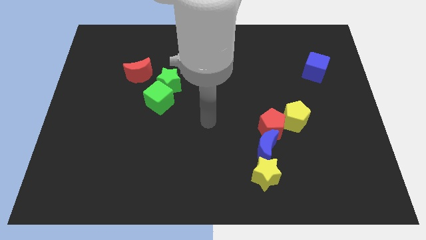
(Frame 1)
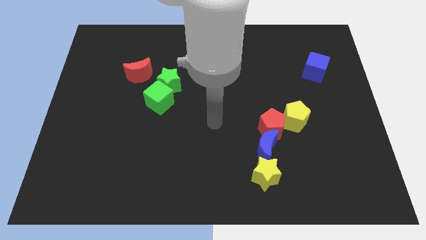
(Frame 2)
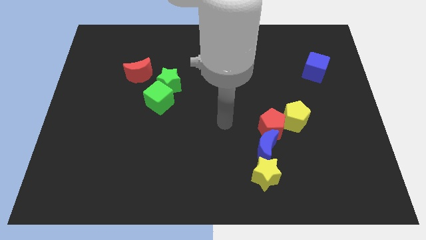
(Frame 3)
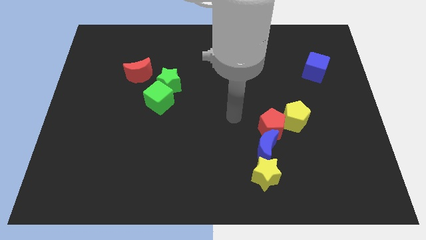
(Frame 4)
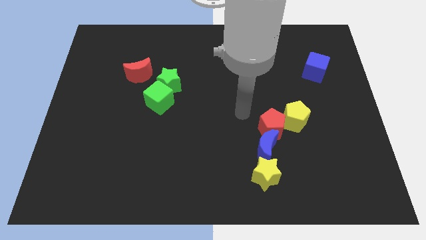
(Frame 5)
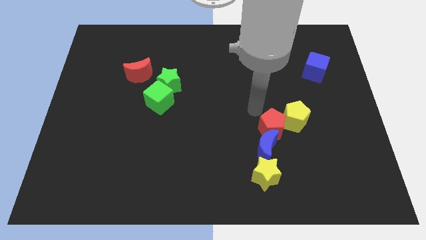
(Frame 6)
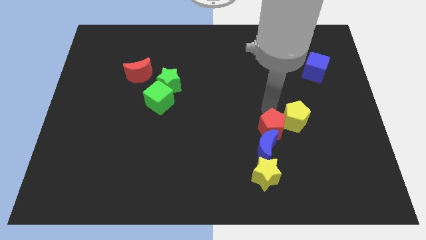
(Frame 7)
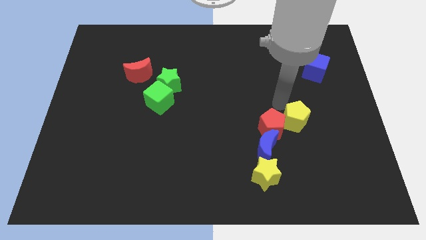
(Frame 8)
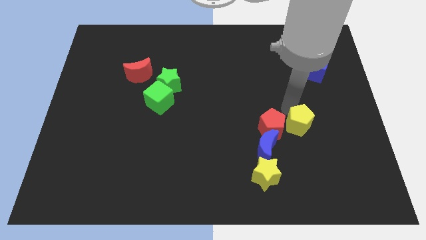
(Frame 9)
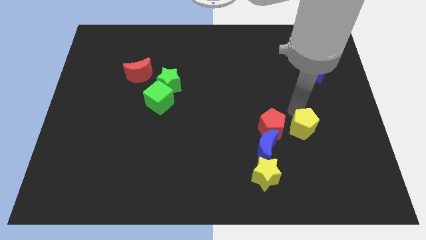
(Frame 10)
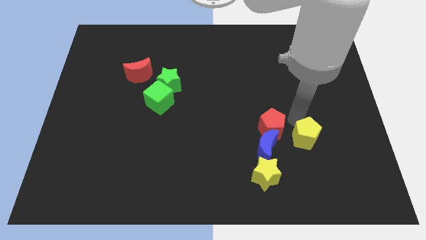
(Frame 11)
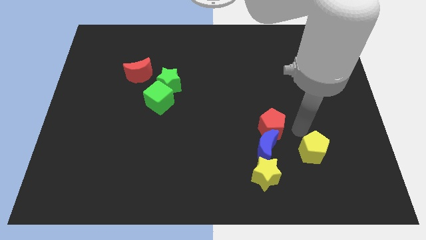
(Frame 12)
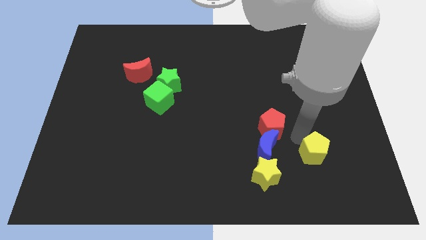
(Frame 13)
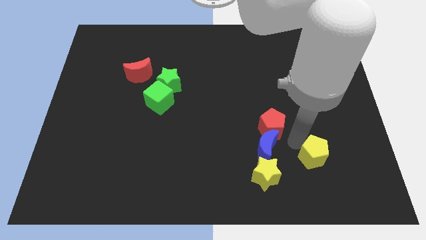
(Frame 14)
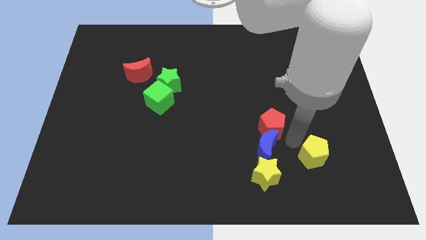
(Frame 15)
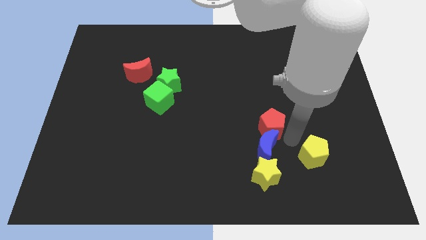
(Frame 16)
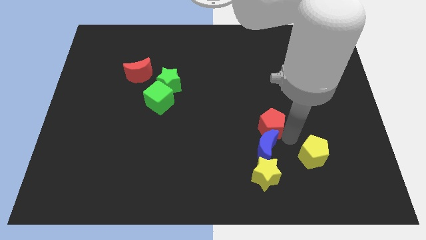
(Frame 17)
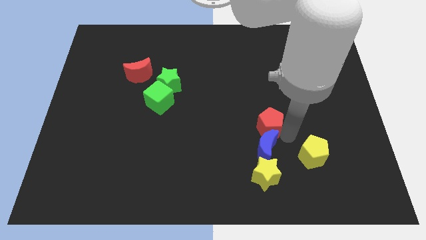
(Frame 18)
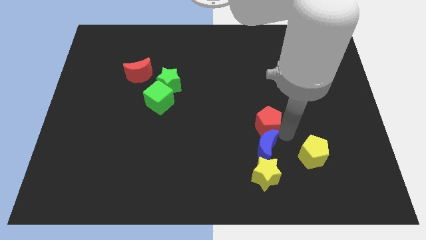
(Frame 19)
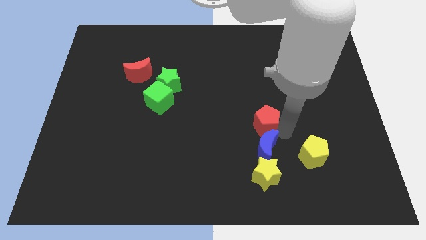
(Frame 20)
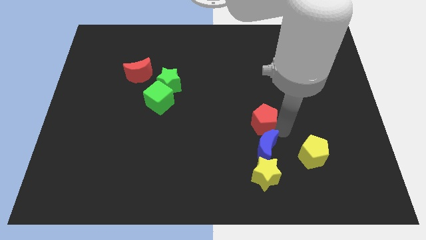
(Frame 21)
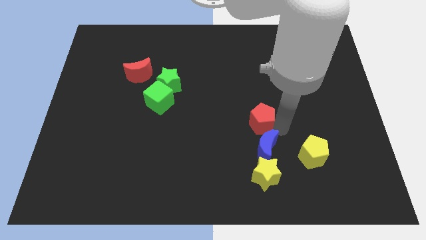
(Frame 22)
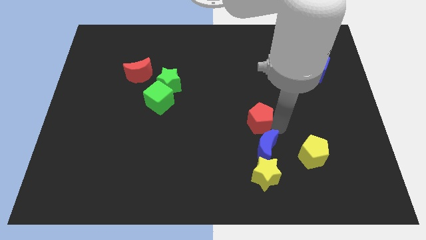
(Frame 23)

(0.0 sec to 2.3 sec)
separate the red pentagon from the blue moon and yellow pentagon

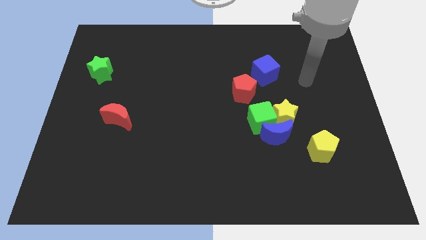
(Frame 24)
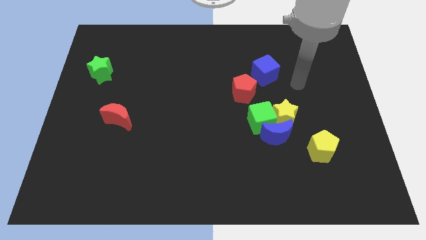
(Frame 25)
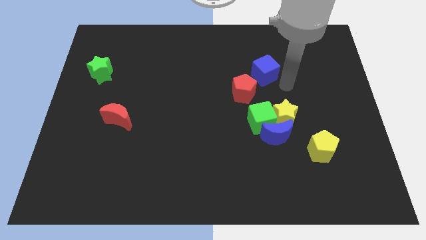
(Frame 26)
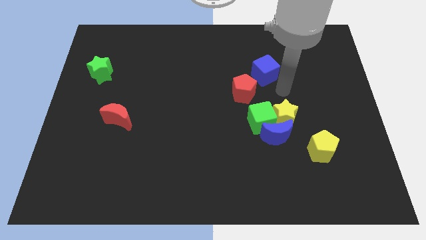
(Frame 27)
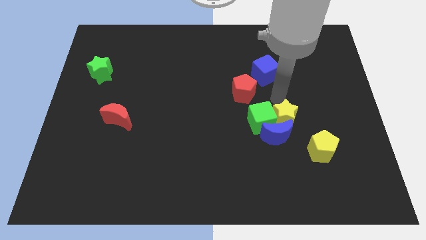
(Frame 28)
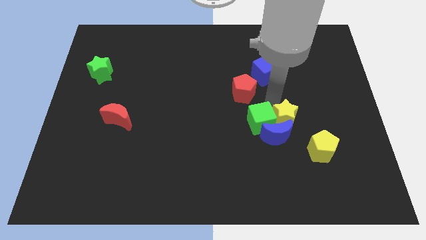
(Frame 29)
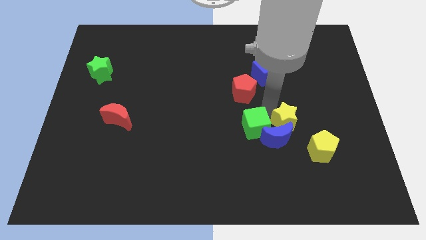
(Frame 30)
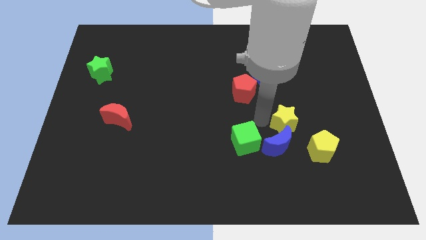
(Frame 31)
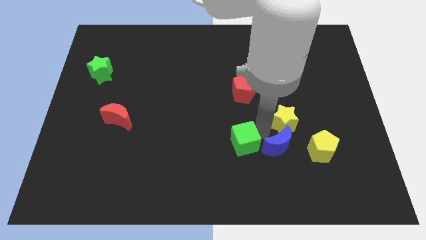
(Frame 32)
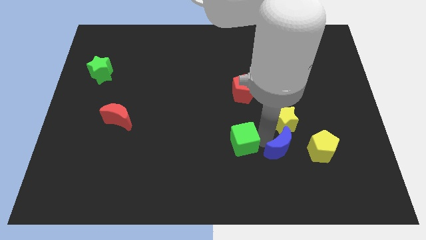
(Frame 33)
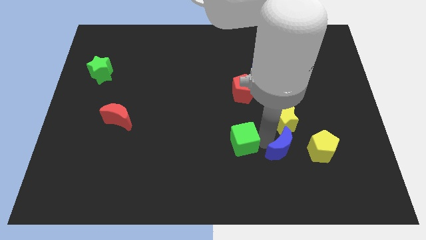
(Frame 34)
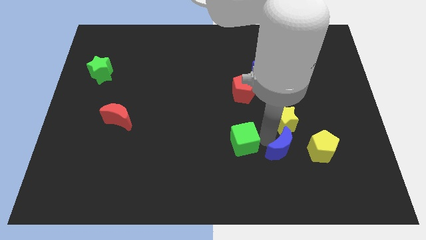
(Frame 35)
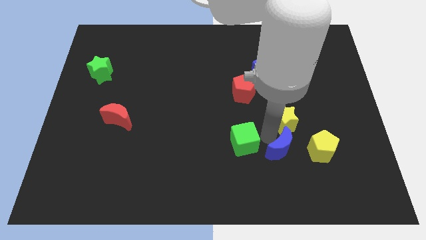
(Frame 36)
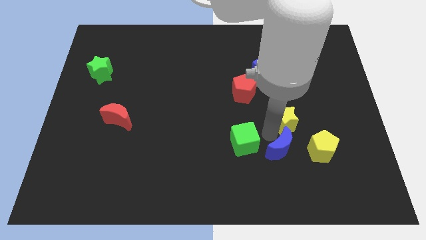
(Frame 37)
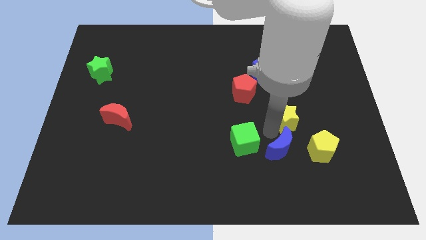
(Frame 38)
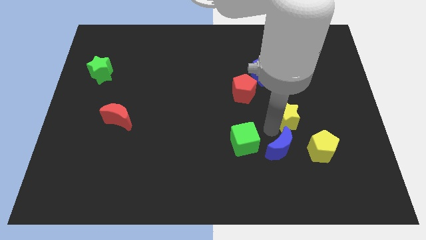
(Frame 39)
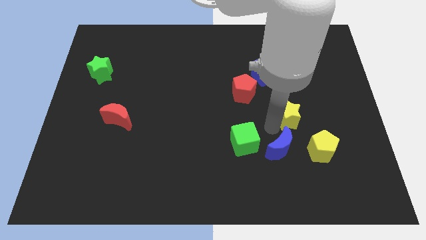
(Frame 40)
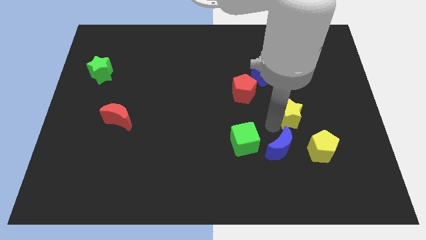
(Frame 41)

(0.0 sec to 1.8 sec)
pull the yellow star apart from the green cube and blue moon

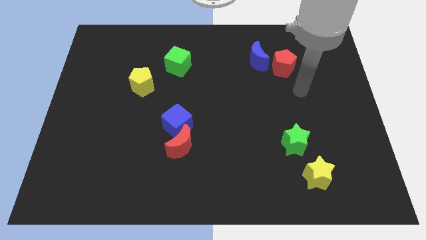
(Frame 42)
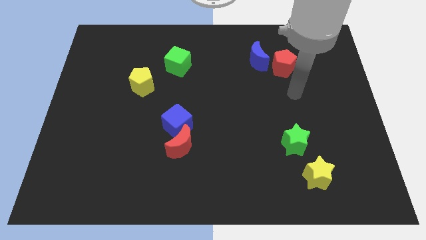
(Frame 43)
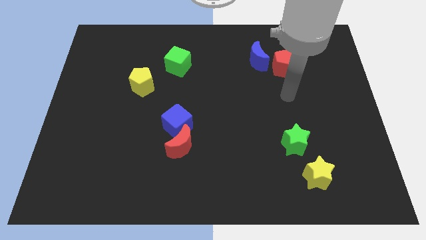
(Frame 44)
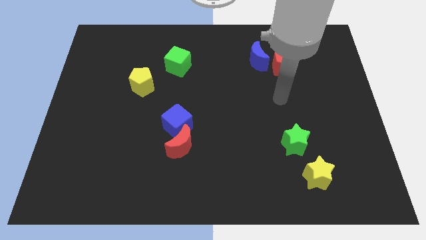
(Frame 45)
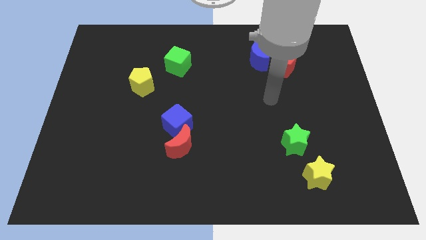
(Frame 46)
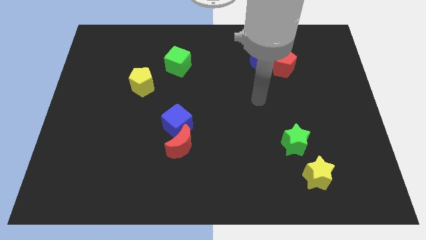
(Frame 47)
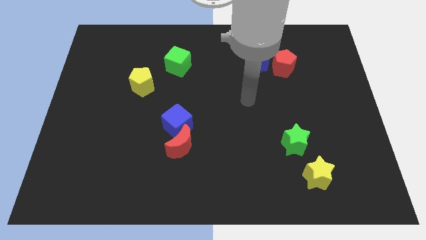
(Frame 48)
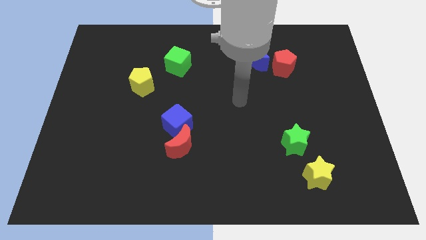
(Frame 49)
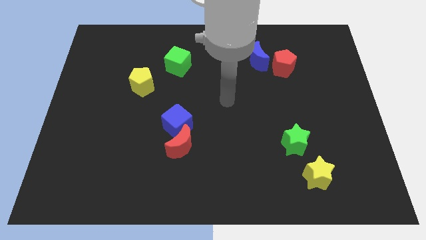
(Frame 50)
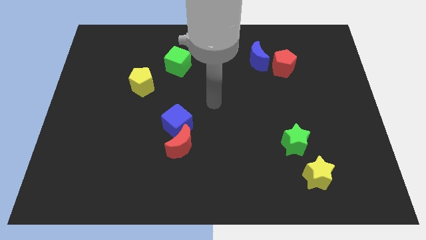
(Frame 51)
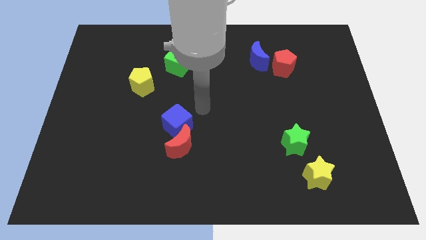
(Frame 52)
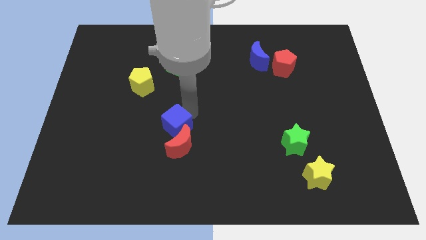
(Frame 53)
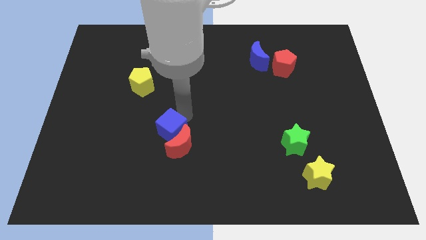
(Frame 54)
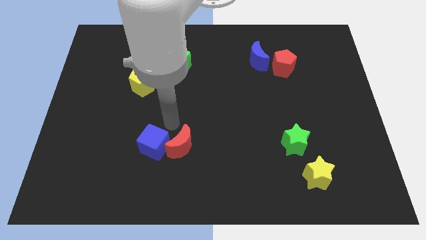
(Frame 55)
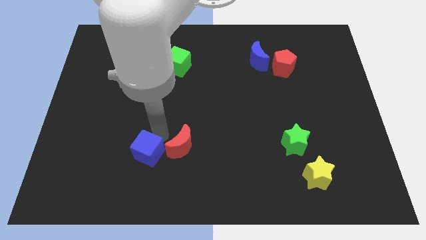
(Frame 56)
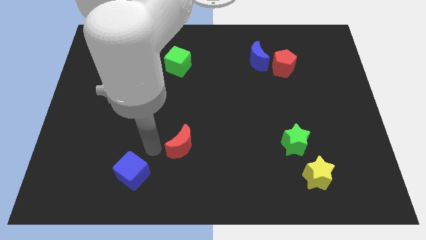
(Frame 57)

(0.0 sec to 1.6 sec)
separate the red moon from the blue cube

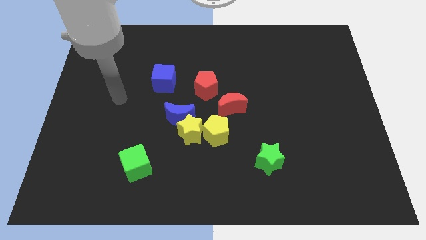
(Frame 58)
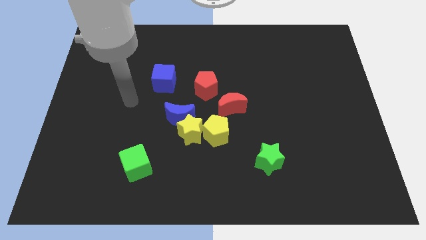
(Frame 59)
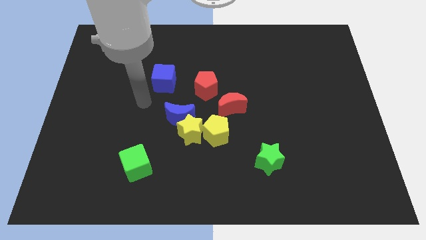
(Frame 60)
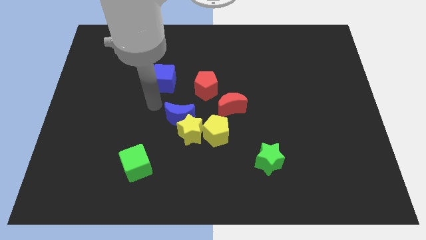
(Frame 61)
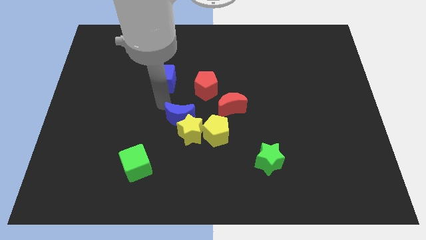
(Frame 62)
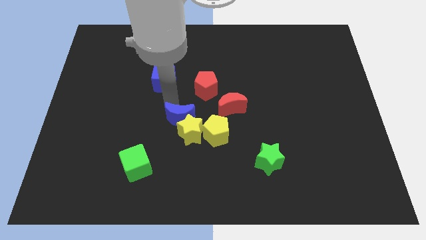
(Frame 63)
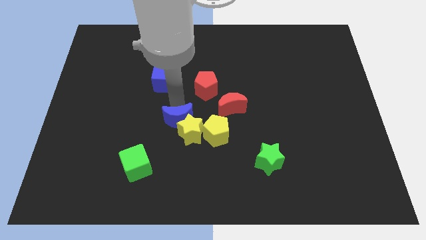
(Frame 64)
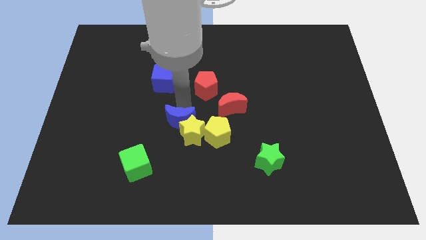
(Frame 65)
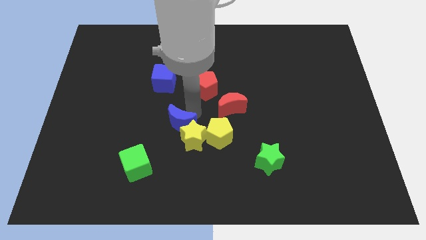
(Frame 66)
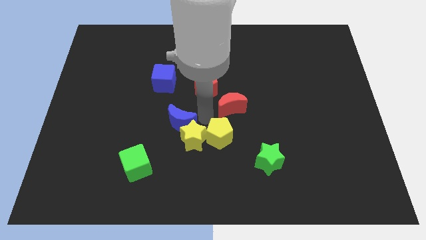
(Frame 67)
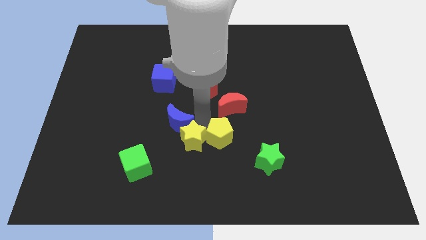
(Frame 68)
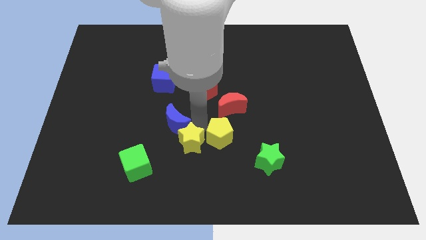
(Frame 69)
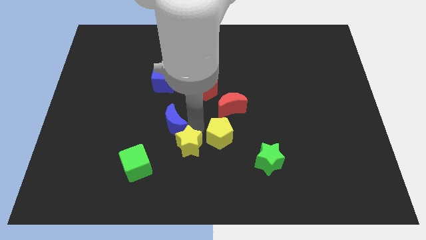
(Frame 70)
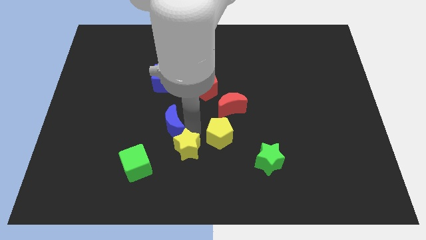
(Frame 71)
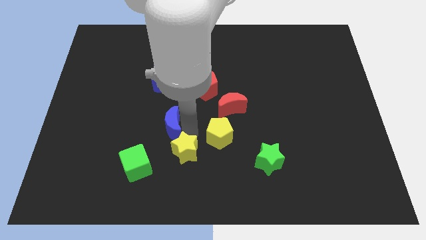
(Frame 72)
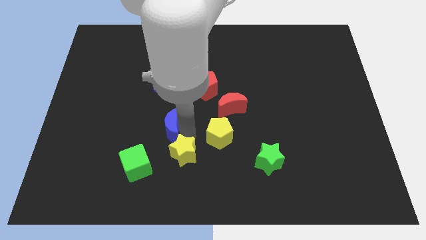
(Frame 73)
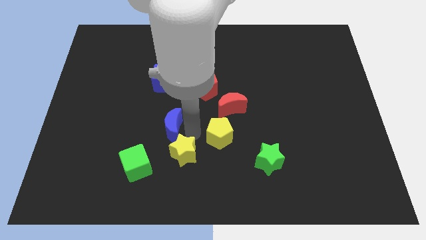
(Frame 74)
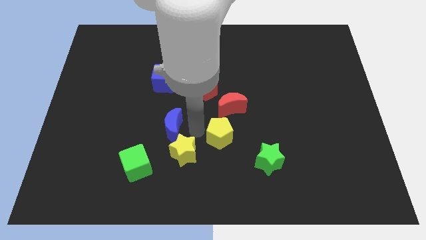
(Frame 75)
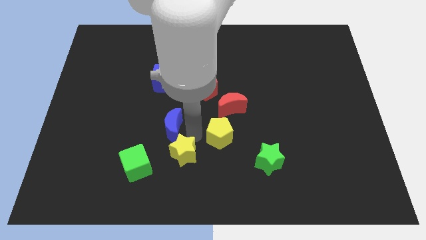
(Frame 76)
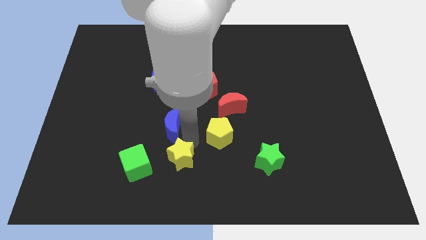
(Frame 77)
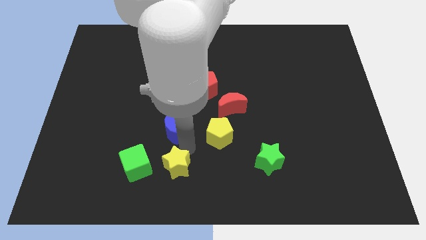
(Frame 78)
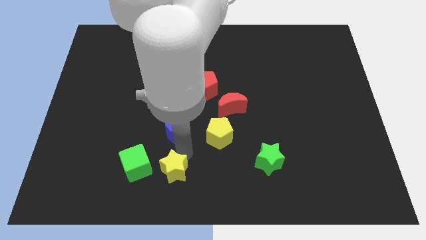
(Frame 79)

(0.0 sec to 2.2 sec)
move the yellow star away from the blue moon and yellow pentagon

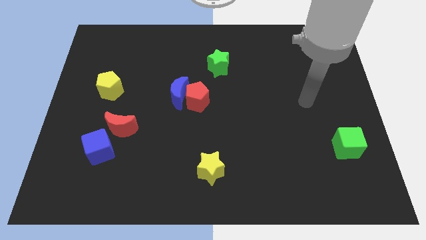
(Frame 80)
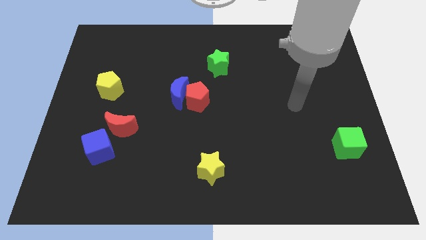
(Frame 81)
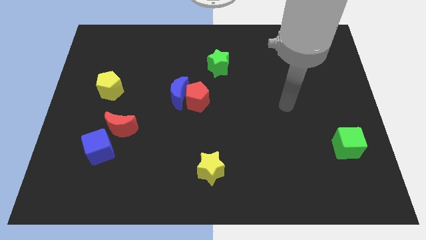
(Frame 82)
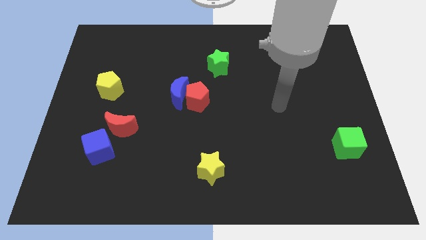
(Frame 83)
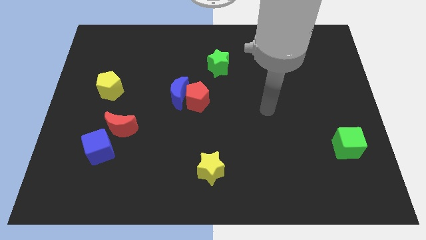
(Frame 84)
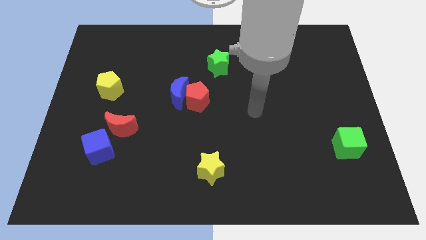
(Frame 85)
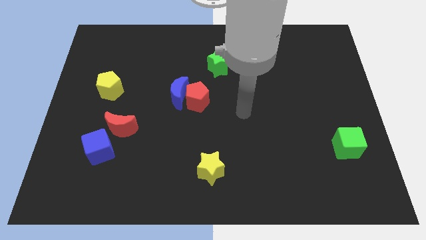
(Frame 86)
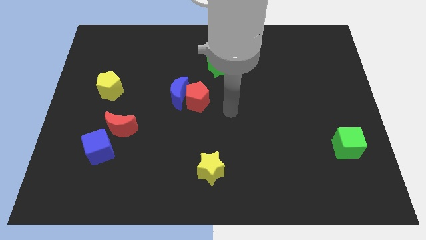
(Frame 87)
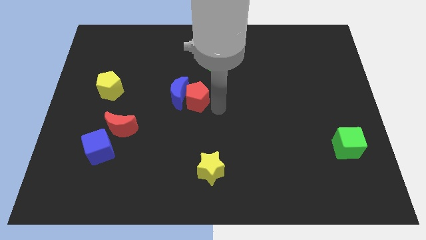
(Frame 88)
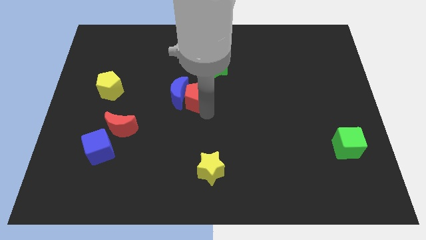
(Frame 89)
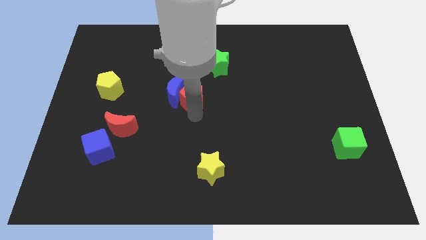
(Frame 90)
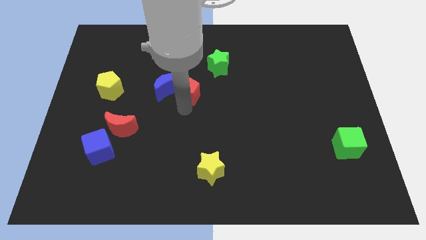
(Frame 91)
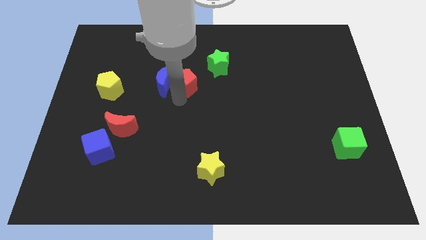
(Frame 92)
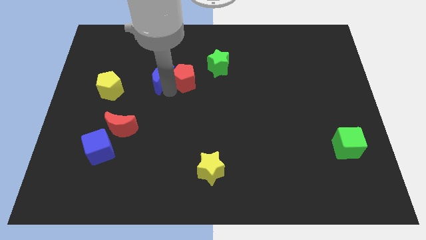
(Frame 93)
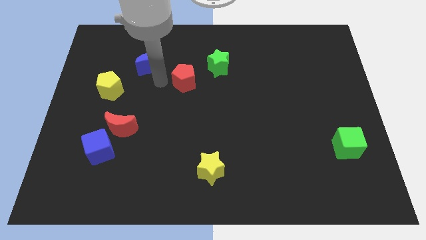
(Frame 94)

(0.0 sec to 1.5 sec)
separate the red pentagon from the blue moon
